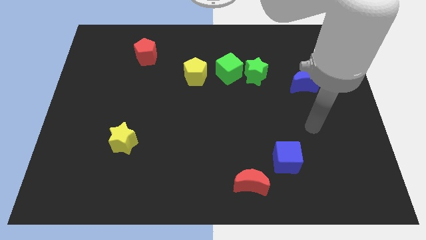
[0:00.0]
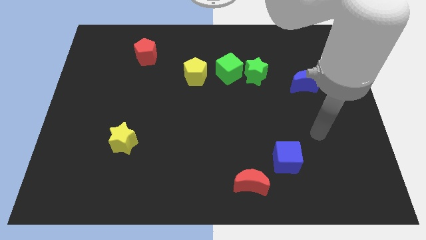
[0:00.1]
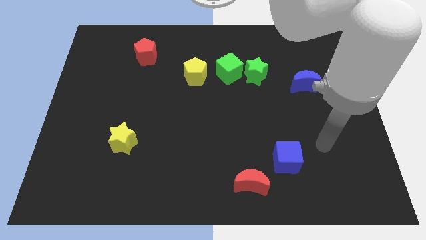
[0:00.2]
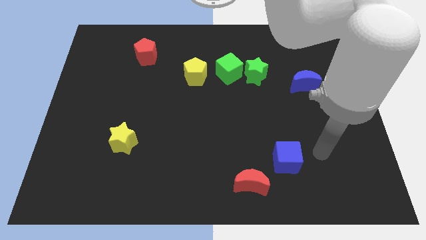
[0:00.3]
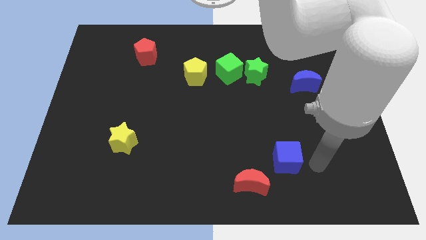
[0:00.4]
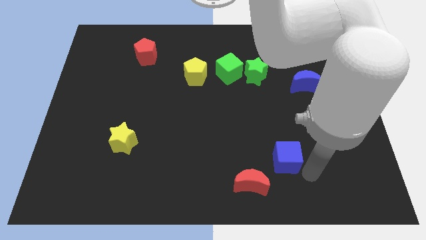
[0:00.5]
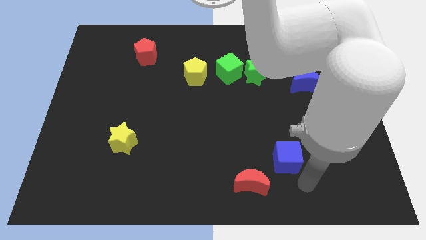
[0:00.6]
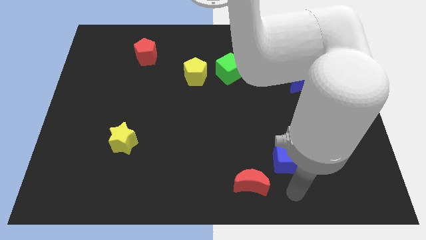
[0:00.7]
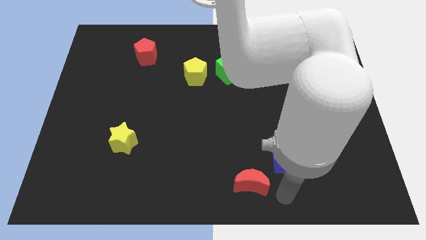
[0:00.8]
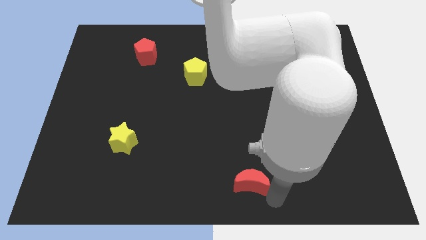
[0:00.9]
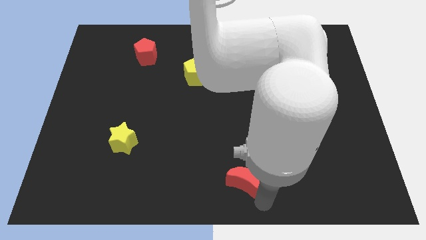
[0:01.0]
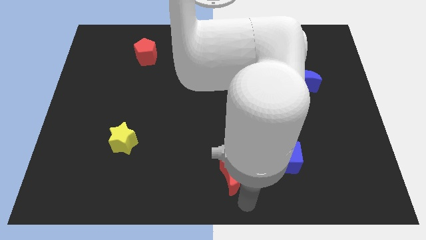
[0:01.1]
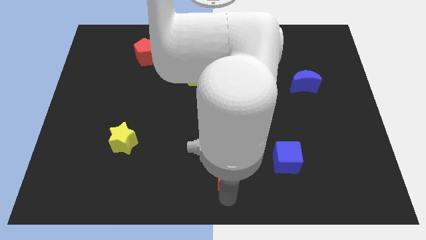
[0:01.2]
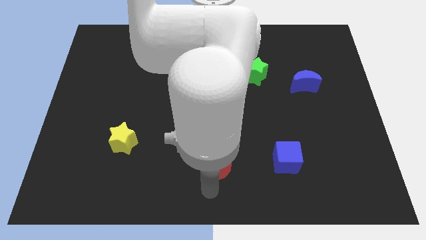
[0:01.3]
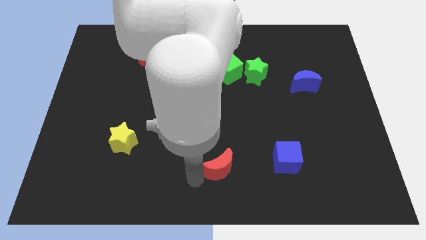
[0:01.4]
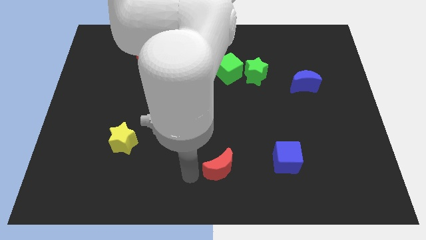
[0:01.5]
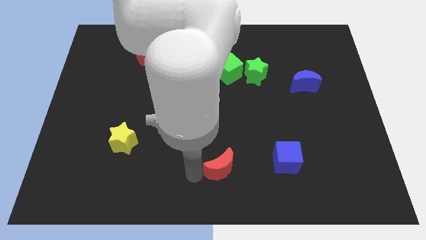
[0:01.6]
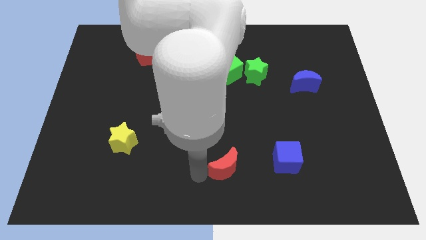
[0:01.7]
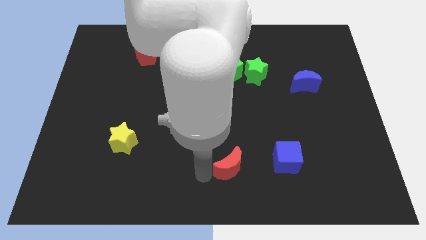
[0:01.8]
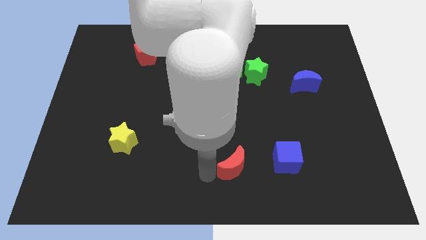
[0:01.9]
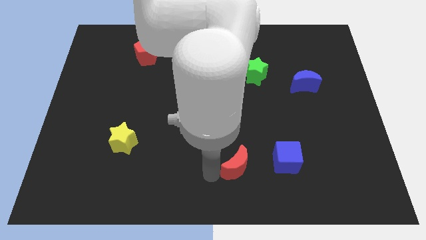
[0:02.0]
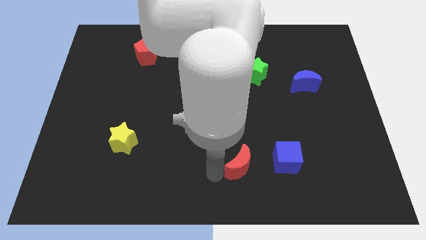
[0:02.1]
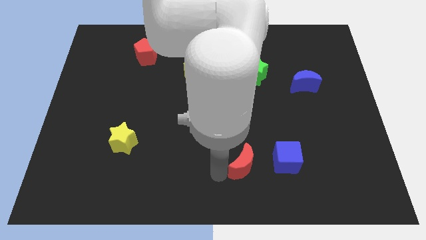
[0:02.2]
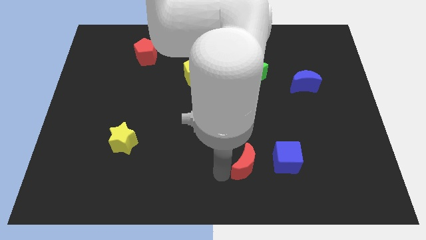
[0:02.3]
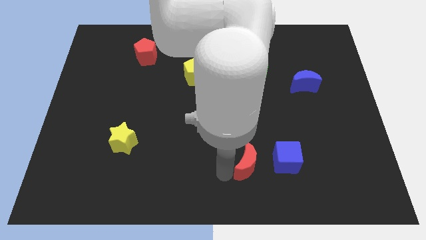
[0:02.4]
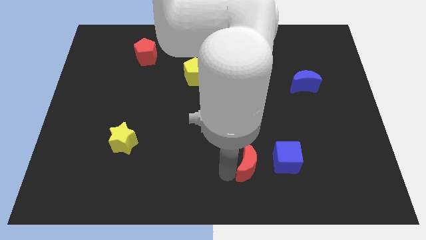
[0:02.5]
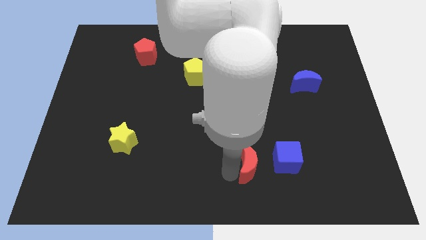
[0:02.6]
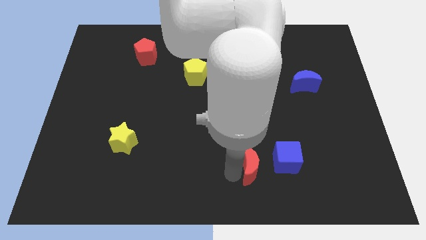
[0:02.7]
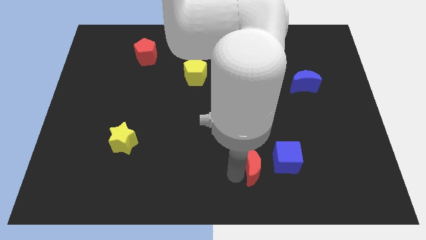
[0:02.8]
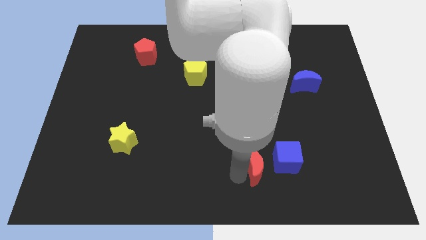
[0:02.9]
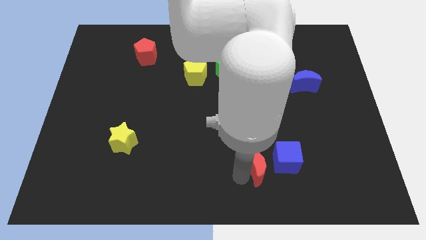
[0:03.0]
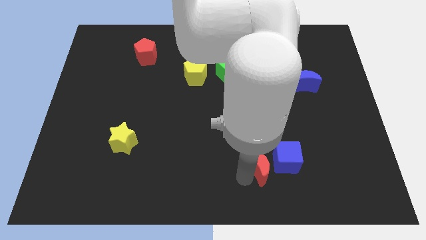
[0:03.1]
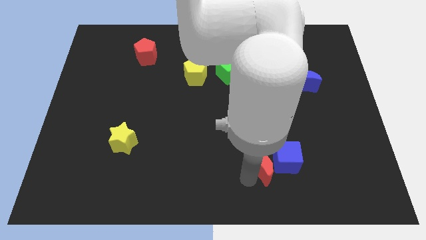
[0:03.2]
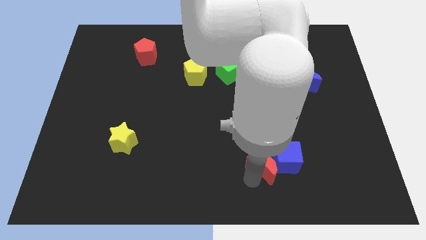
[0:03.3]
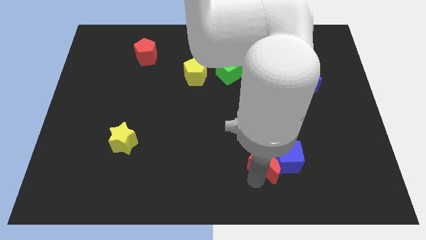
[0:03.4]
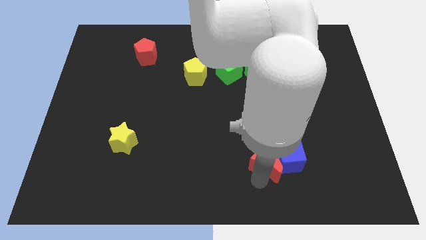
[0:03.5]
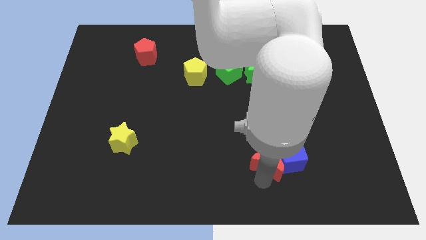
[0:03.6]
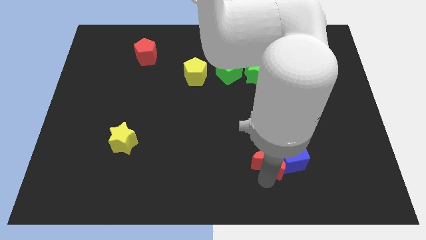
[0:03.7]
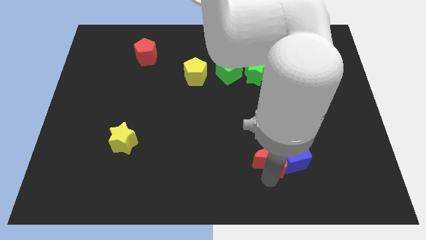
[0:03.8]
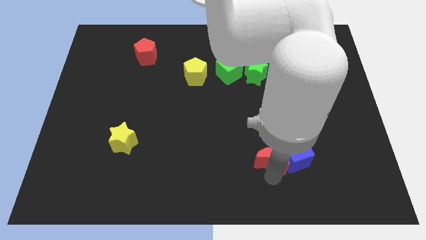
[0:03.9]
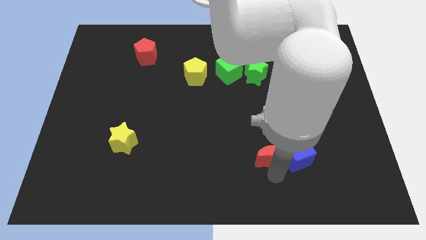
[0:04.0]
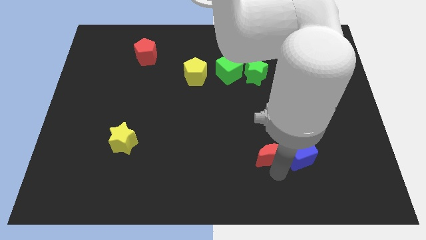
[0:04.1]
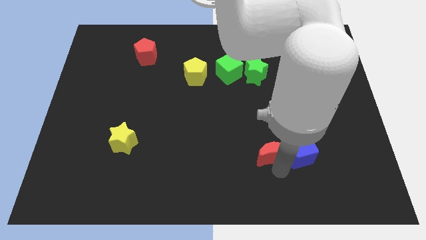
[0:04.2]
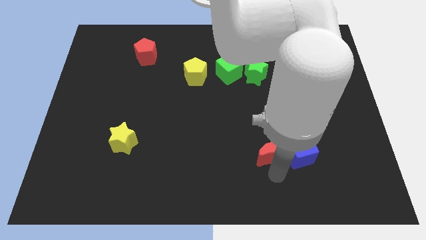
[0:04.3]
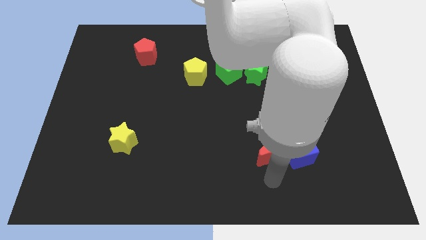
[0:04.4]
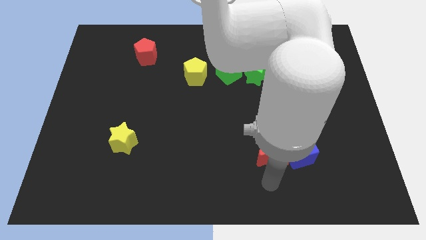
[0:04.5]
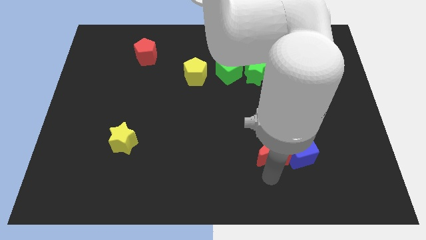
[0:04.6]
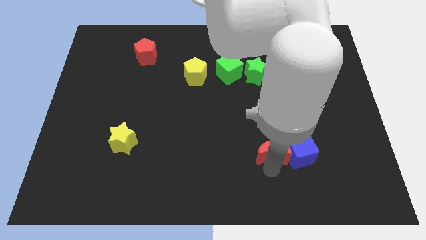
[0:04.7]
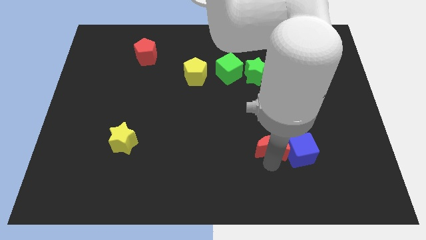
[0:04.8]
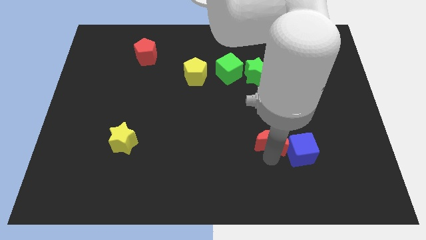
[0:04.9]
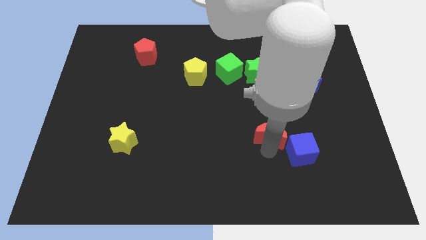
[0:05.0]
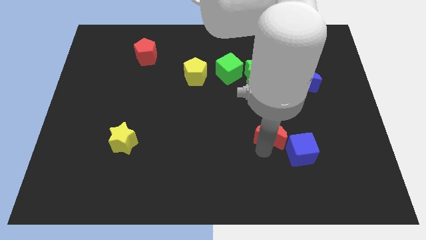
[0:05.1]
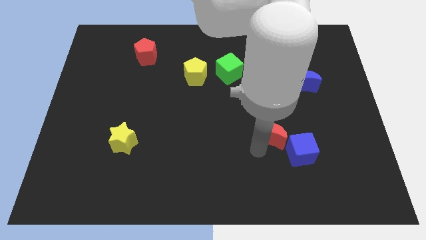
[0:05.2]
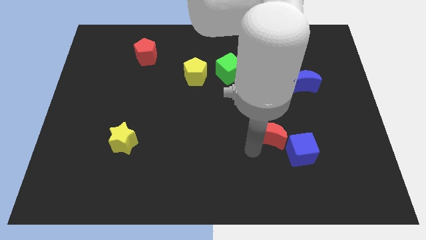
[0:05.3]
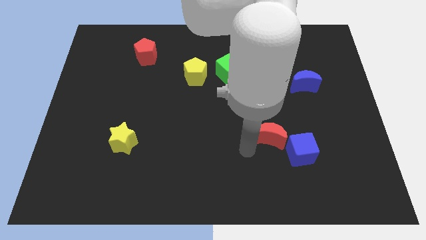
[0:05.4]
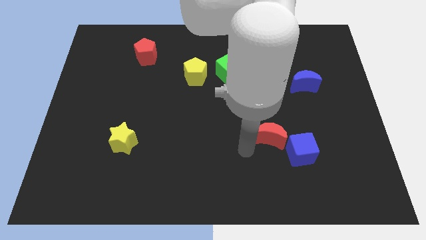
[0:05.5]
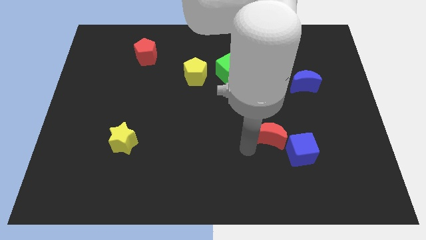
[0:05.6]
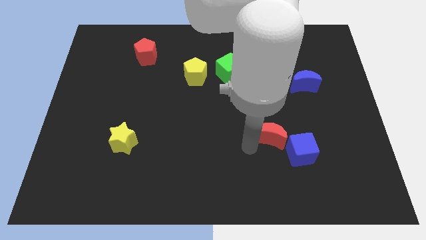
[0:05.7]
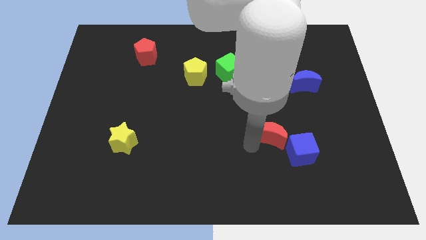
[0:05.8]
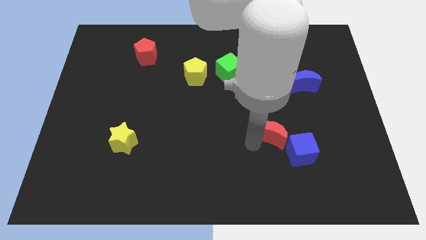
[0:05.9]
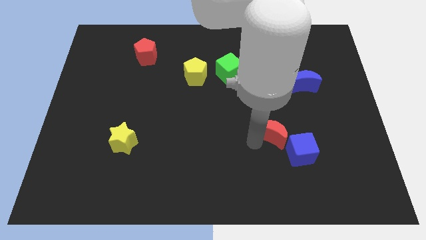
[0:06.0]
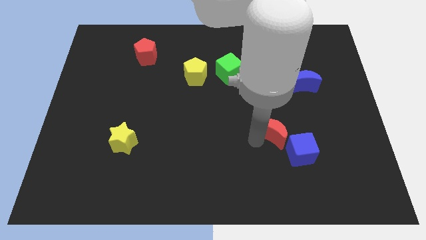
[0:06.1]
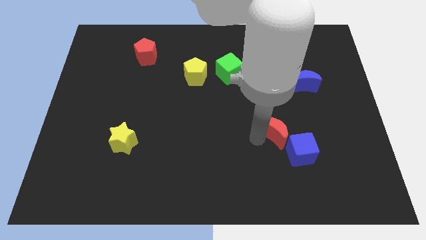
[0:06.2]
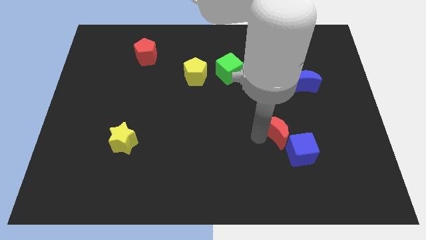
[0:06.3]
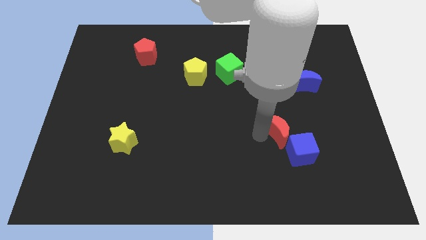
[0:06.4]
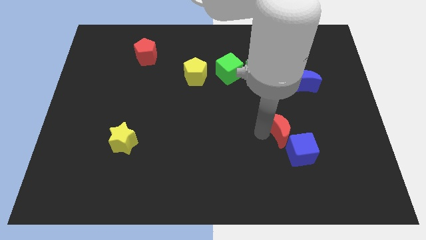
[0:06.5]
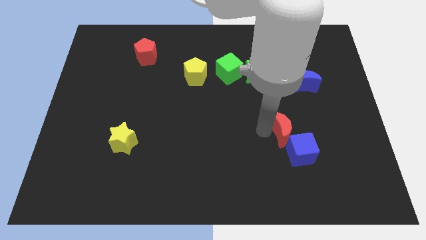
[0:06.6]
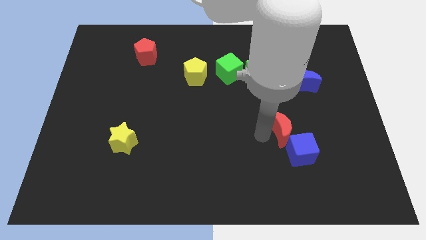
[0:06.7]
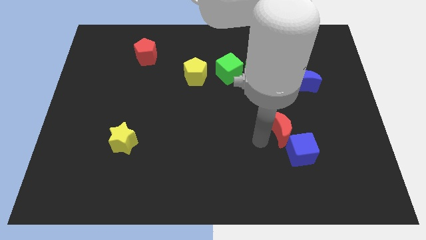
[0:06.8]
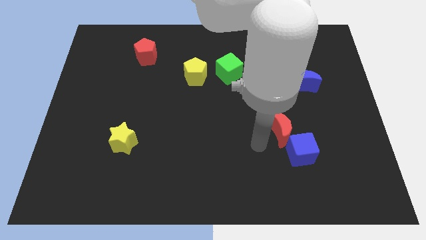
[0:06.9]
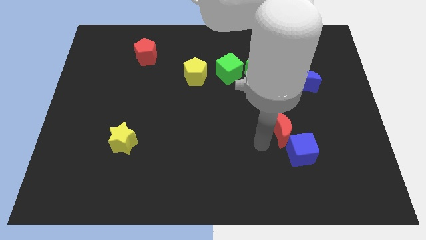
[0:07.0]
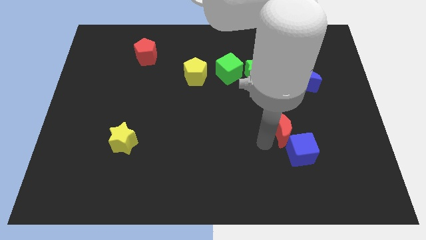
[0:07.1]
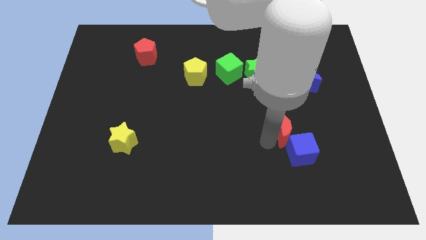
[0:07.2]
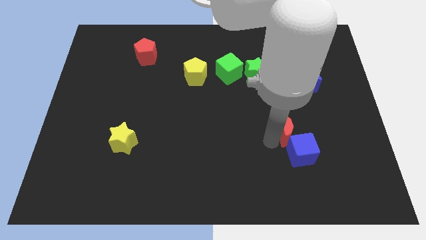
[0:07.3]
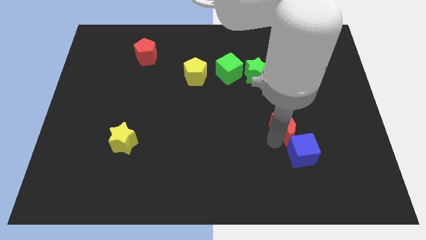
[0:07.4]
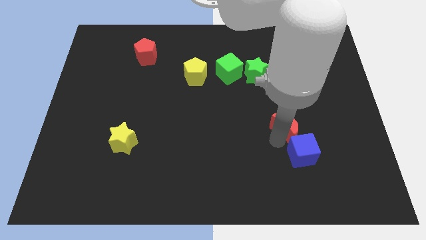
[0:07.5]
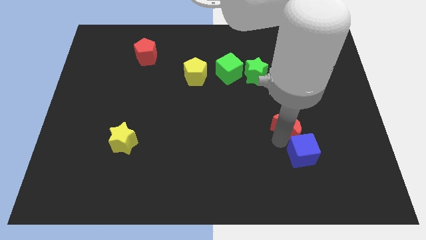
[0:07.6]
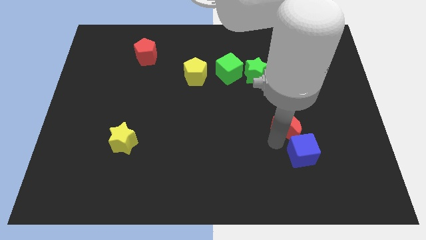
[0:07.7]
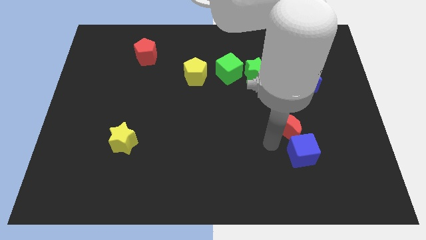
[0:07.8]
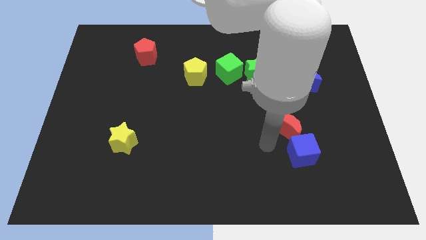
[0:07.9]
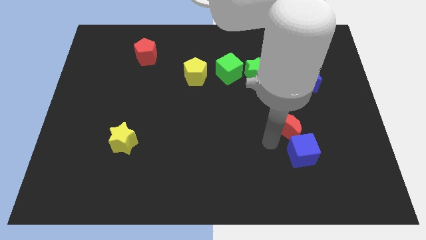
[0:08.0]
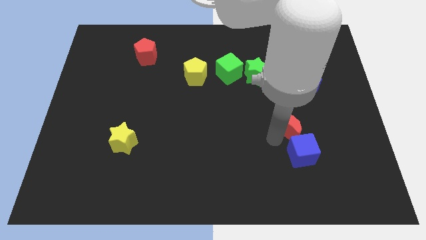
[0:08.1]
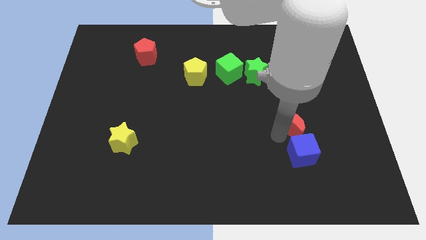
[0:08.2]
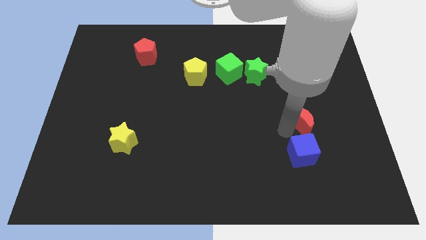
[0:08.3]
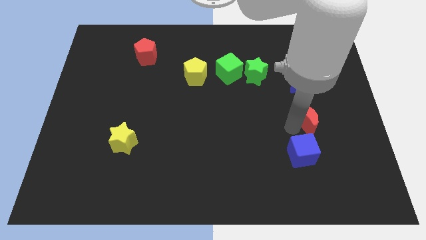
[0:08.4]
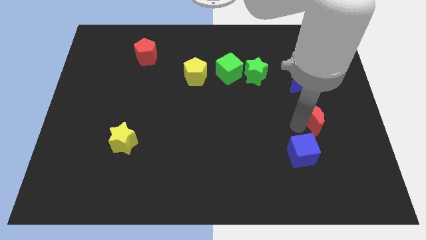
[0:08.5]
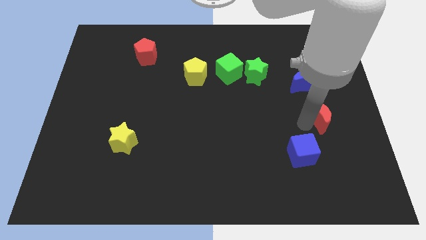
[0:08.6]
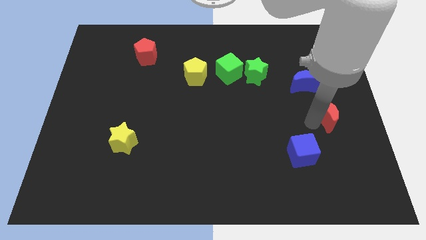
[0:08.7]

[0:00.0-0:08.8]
push the red moon to the bottom right side of the blue moon
